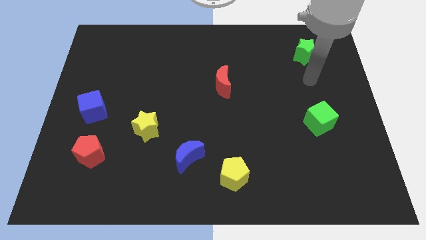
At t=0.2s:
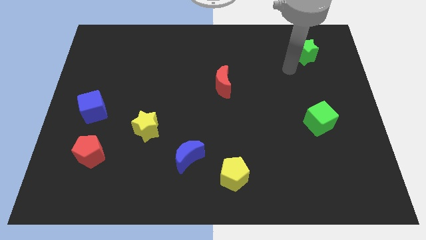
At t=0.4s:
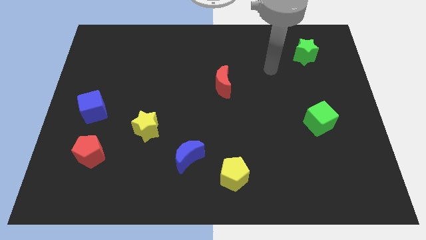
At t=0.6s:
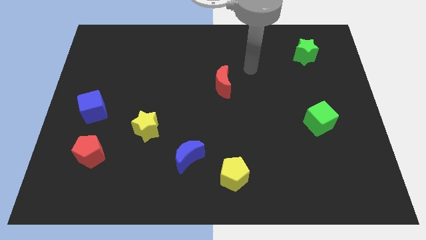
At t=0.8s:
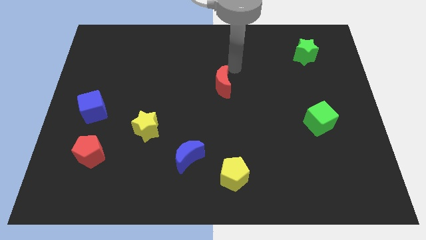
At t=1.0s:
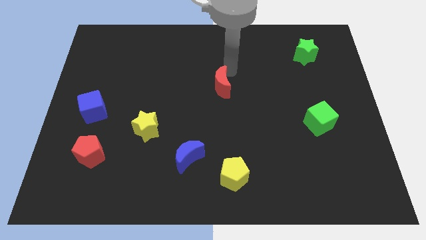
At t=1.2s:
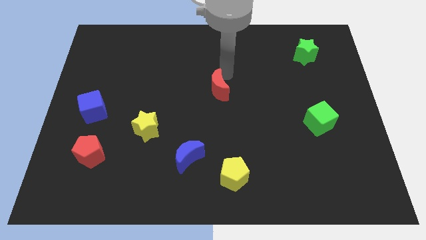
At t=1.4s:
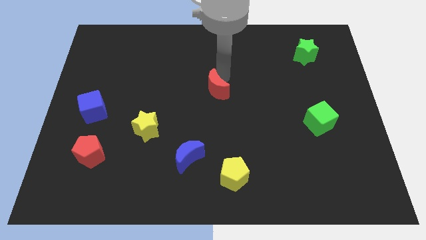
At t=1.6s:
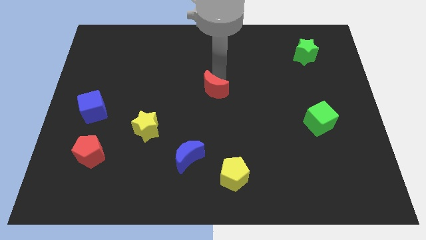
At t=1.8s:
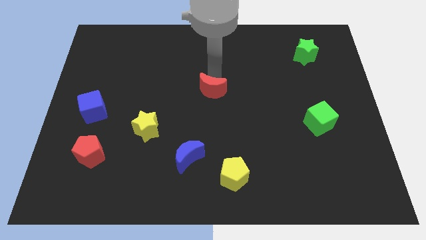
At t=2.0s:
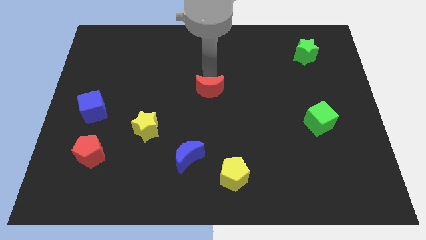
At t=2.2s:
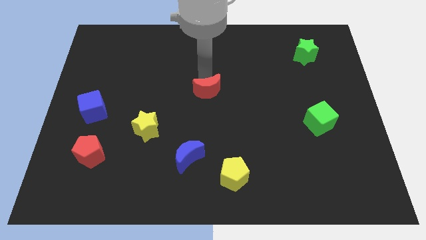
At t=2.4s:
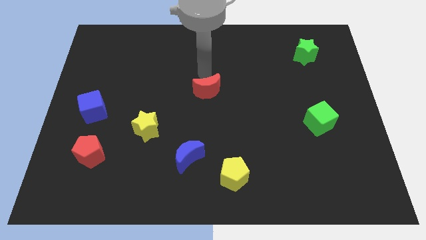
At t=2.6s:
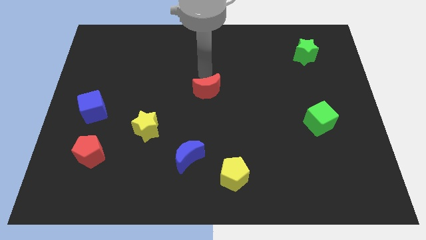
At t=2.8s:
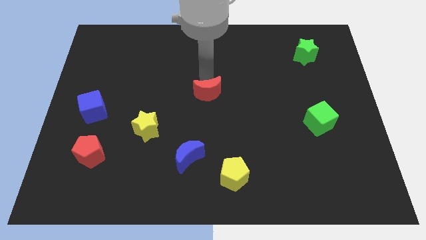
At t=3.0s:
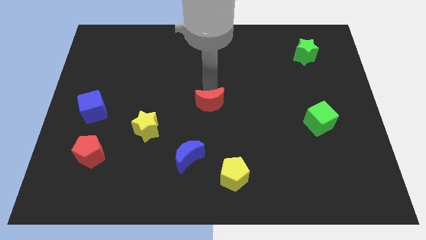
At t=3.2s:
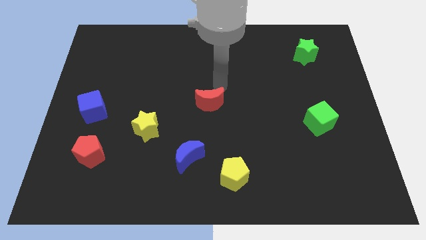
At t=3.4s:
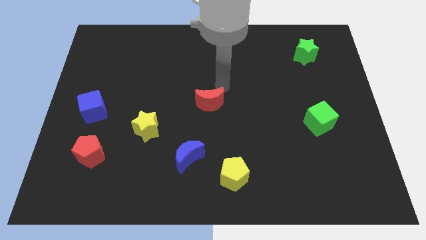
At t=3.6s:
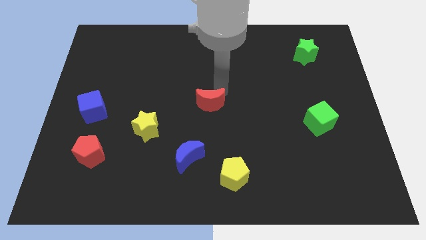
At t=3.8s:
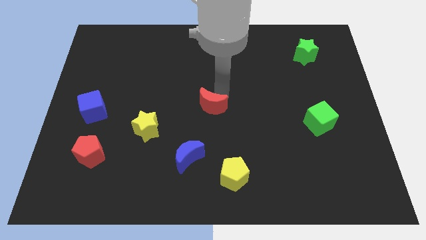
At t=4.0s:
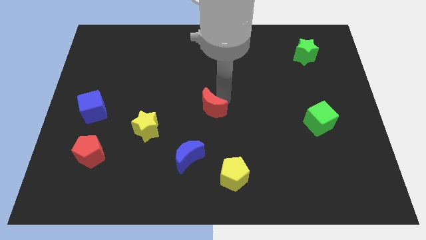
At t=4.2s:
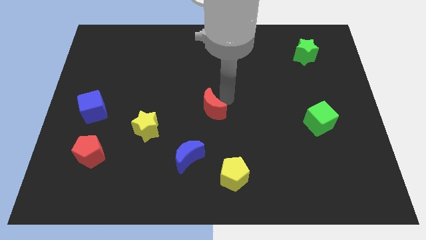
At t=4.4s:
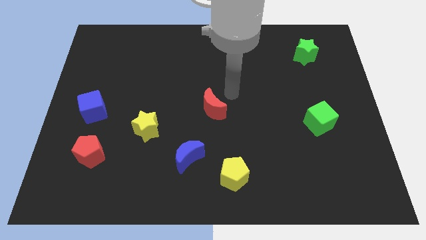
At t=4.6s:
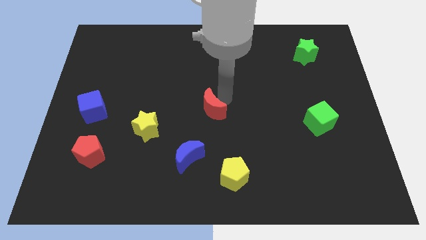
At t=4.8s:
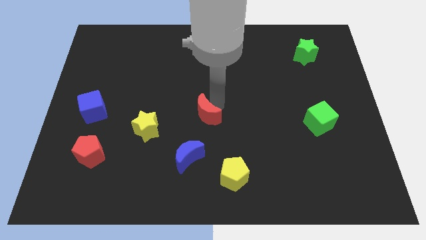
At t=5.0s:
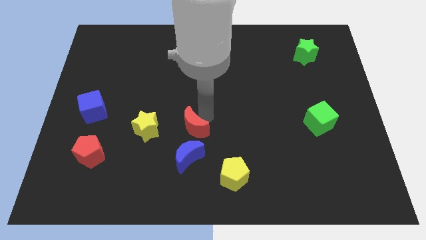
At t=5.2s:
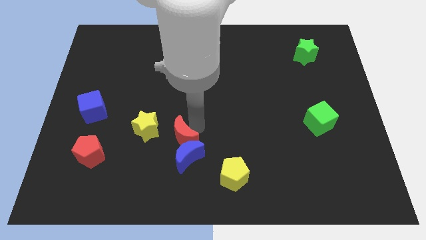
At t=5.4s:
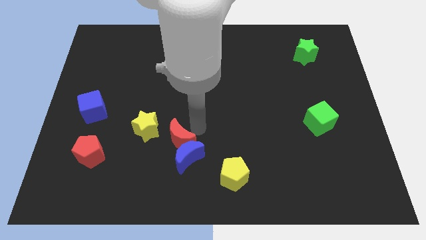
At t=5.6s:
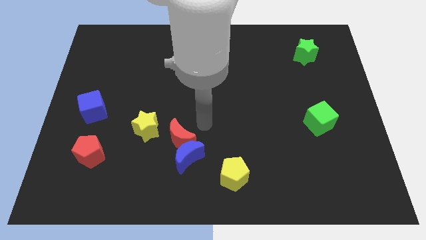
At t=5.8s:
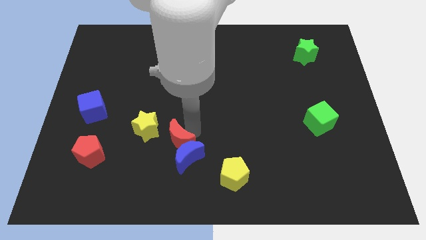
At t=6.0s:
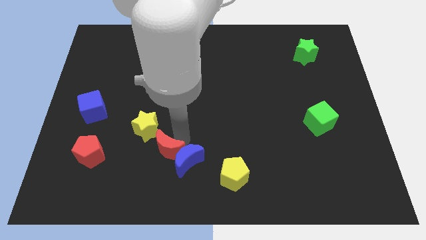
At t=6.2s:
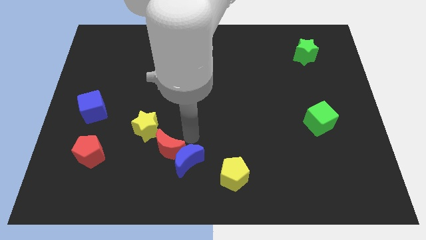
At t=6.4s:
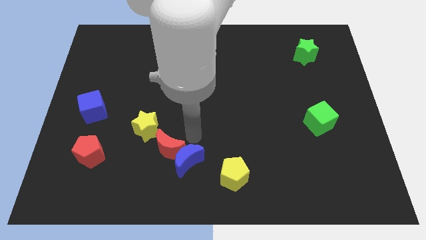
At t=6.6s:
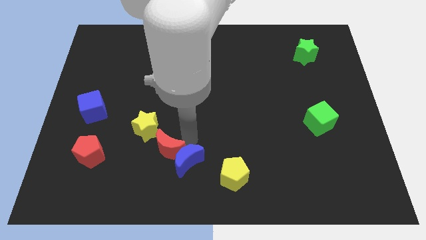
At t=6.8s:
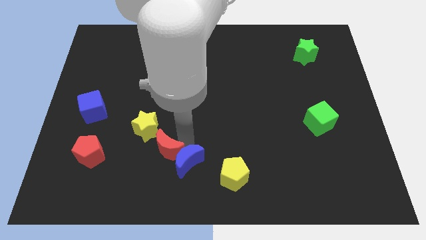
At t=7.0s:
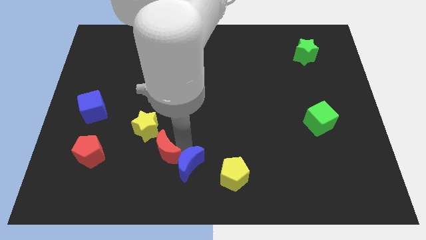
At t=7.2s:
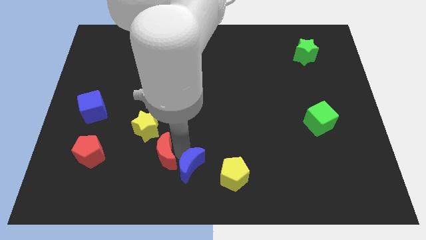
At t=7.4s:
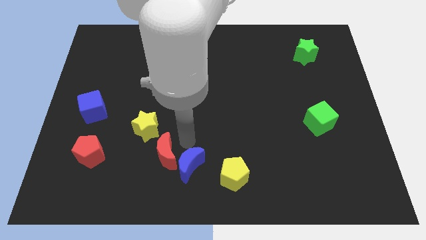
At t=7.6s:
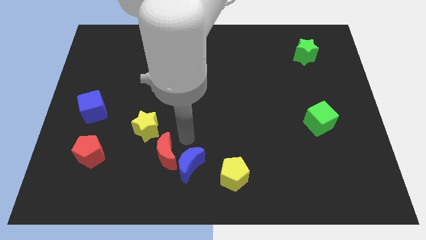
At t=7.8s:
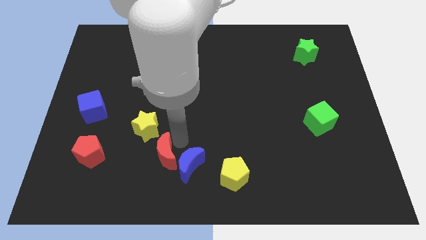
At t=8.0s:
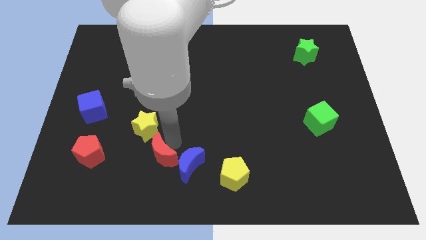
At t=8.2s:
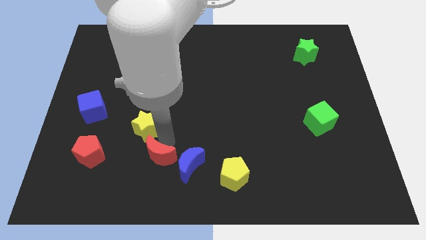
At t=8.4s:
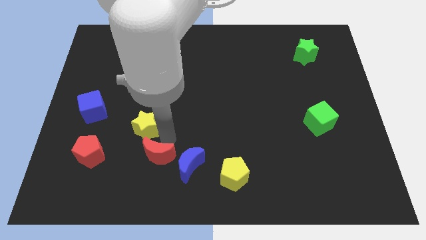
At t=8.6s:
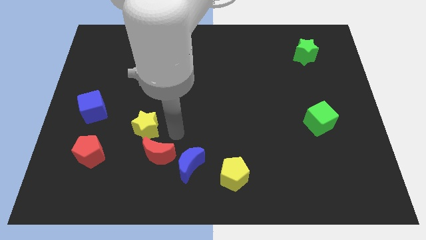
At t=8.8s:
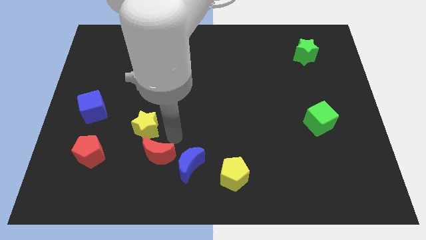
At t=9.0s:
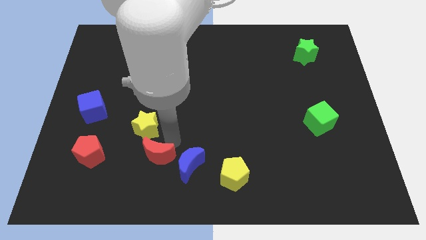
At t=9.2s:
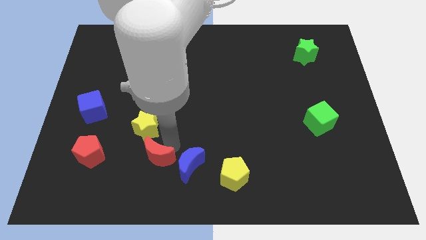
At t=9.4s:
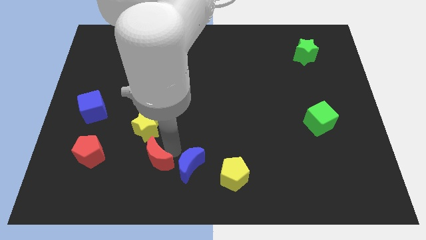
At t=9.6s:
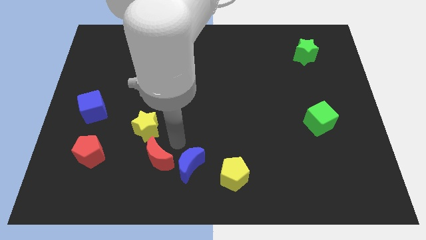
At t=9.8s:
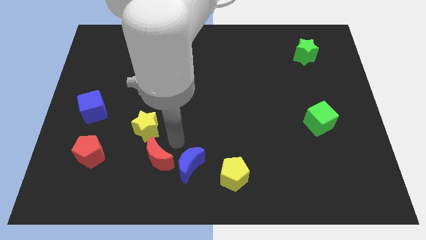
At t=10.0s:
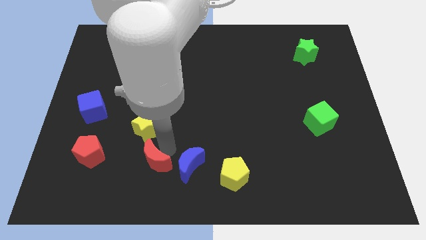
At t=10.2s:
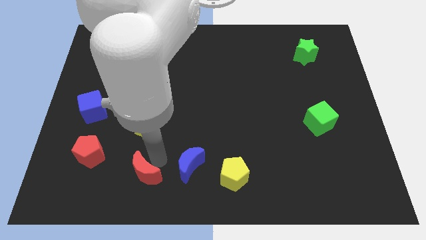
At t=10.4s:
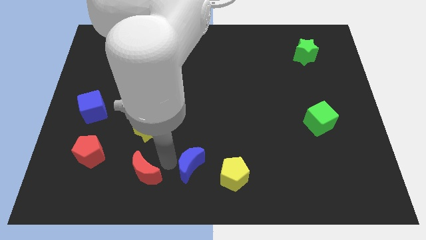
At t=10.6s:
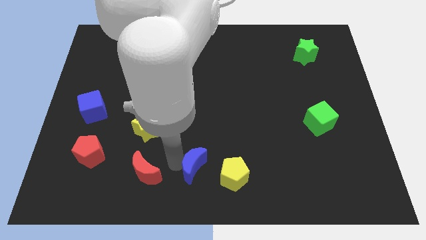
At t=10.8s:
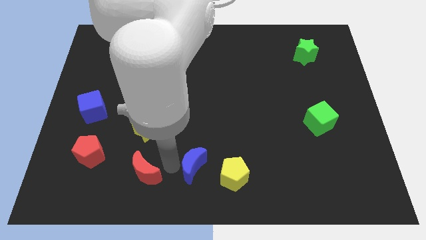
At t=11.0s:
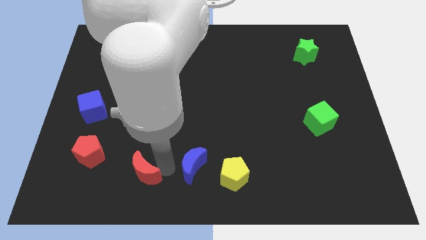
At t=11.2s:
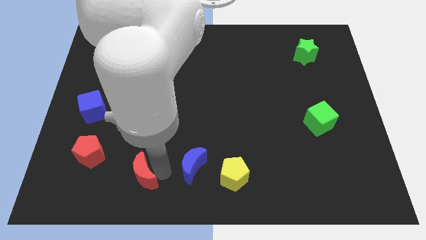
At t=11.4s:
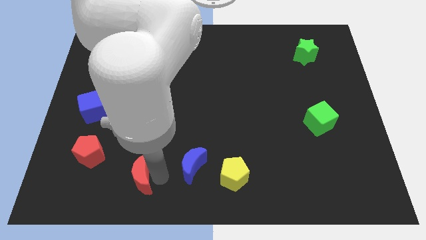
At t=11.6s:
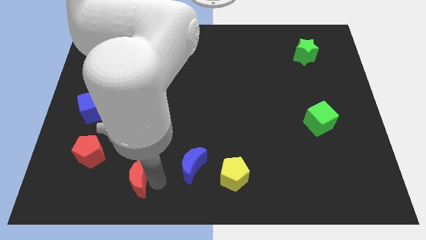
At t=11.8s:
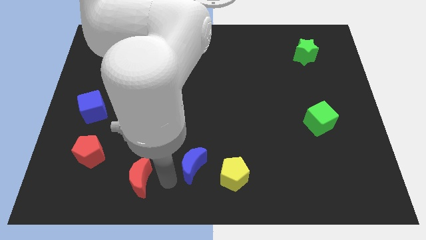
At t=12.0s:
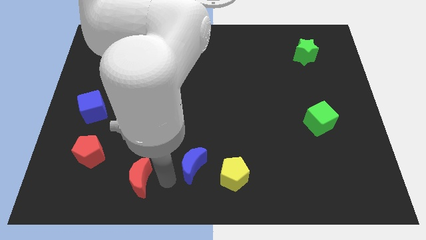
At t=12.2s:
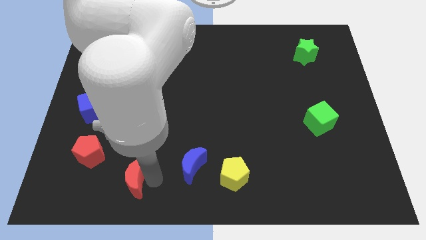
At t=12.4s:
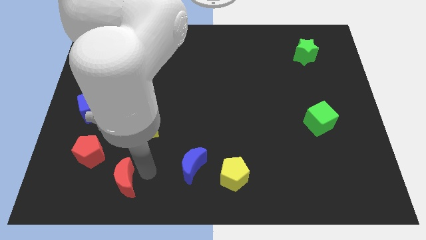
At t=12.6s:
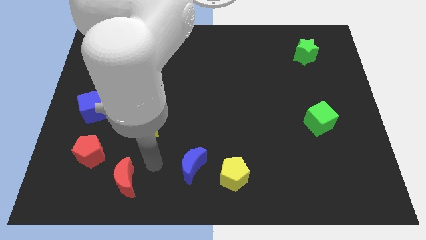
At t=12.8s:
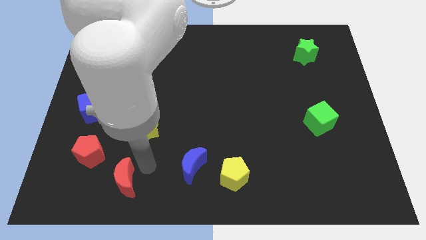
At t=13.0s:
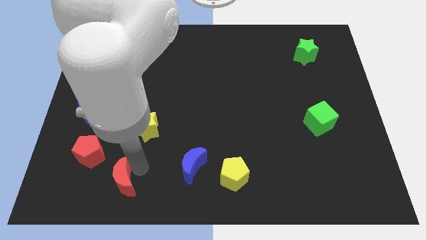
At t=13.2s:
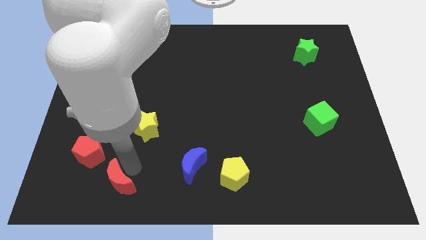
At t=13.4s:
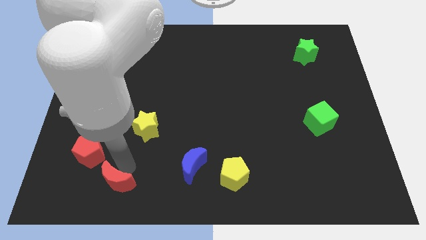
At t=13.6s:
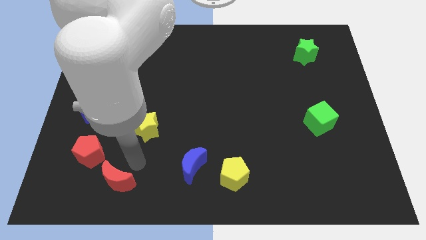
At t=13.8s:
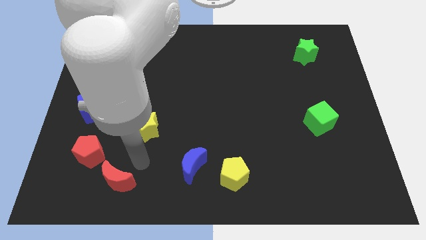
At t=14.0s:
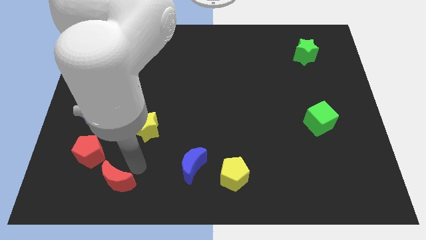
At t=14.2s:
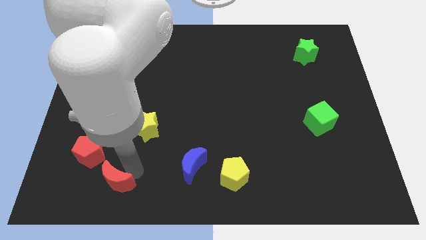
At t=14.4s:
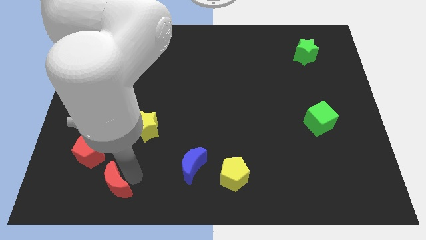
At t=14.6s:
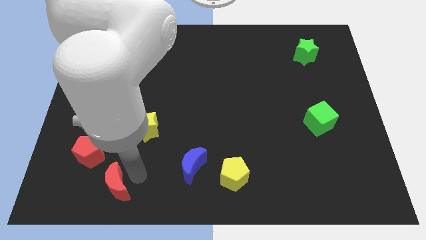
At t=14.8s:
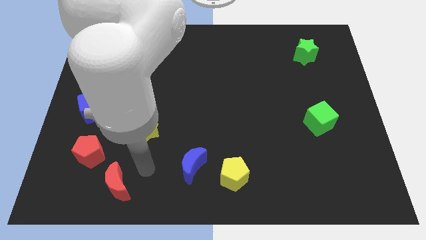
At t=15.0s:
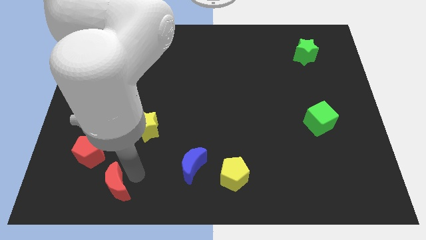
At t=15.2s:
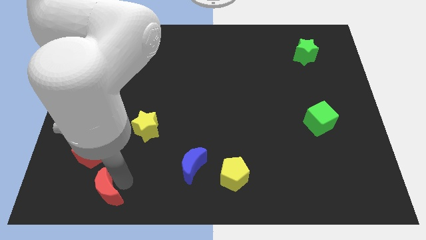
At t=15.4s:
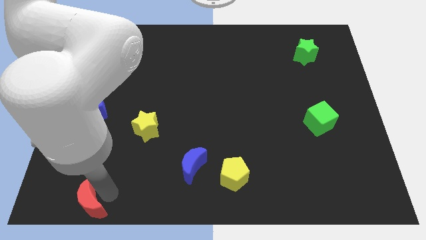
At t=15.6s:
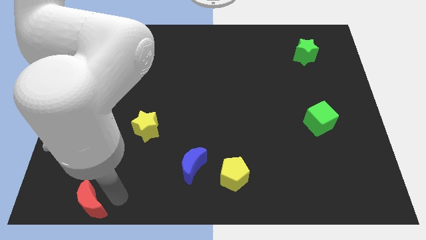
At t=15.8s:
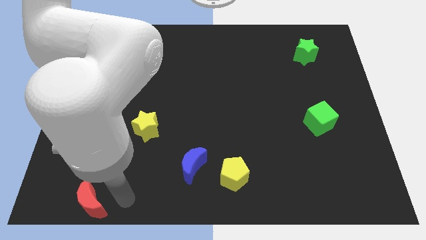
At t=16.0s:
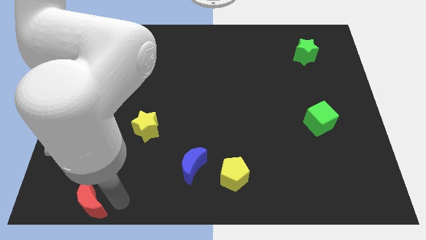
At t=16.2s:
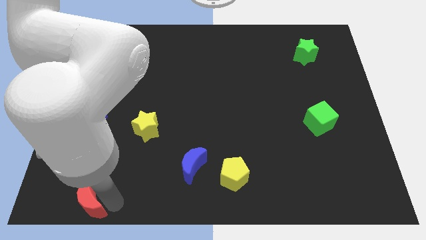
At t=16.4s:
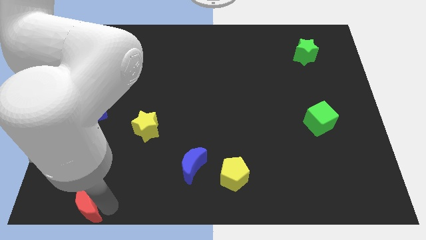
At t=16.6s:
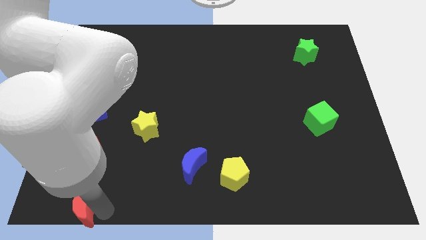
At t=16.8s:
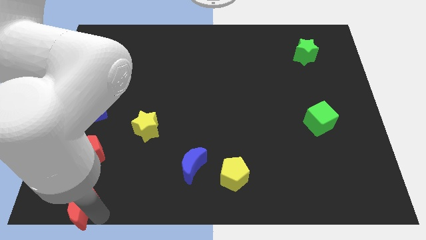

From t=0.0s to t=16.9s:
push the red moon to the bottom left corner
